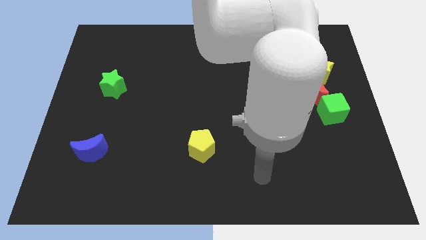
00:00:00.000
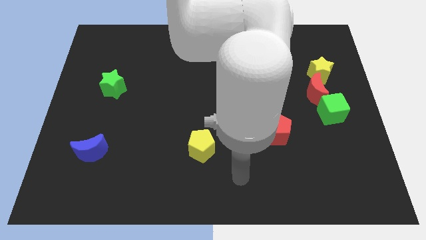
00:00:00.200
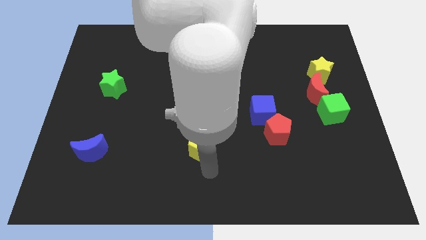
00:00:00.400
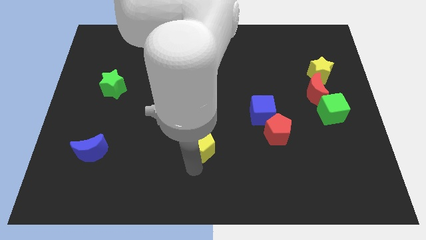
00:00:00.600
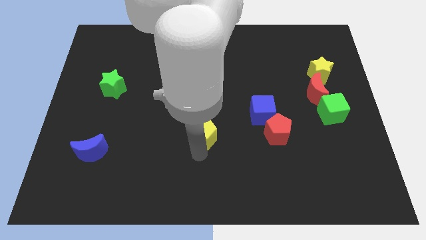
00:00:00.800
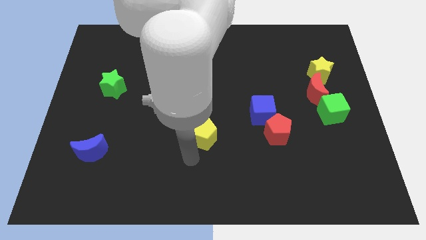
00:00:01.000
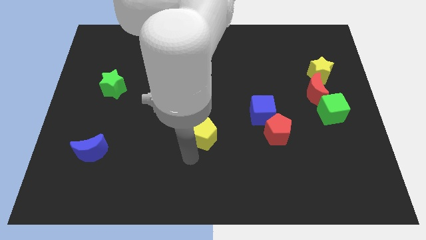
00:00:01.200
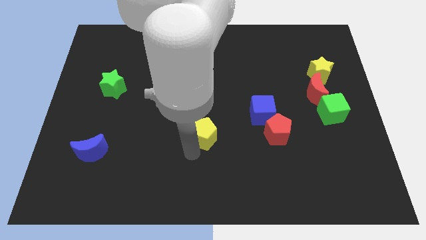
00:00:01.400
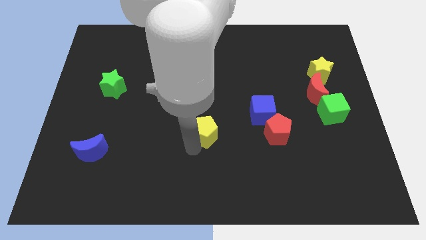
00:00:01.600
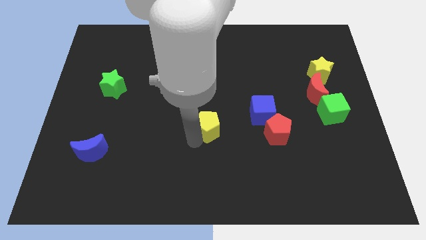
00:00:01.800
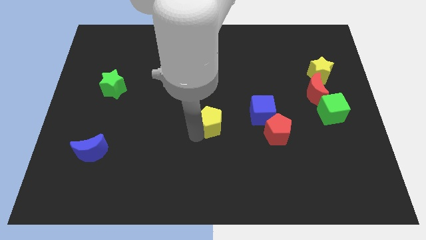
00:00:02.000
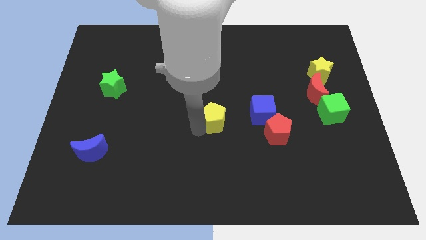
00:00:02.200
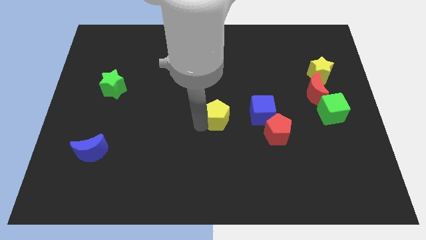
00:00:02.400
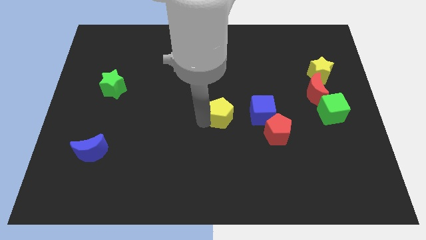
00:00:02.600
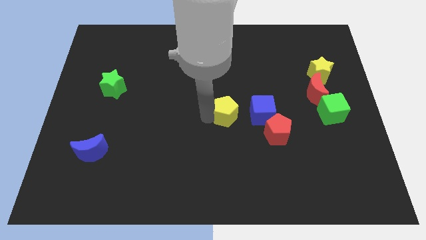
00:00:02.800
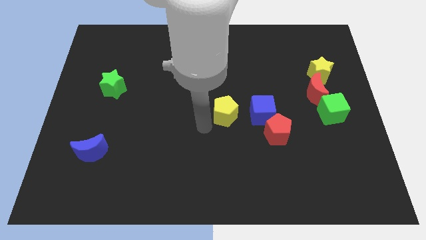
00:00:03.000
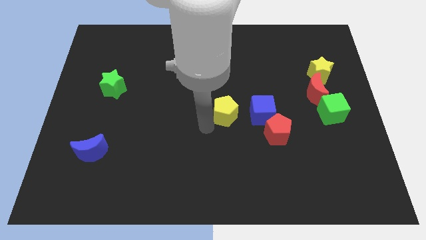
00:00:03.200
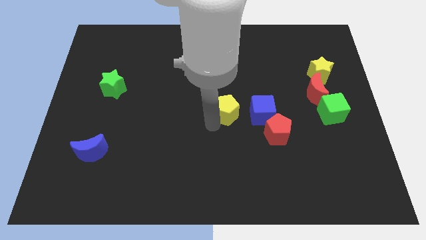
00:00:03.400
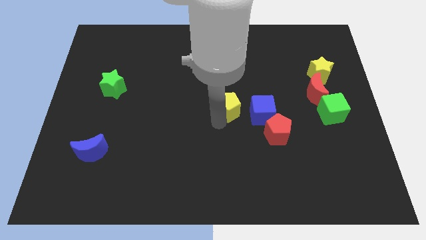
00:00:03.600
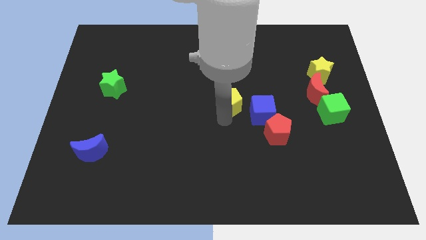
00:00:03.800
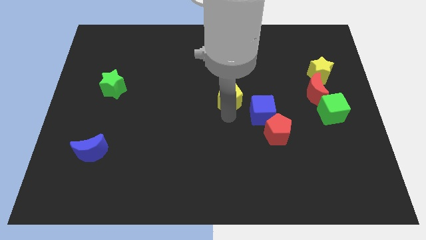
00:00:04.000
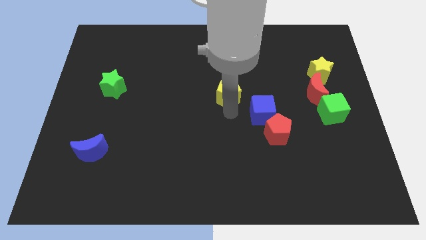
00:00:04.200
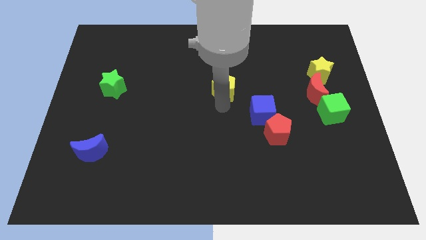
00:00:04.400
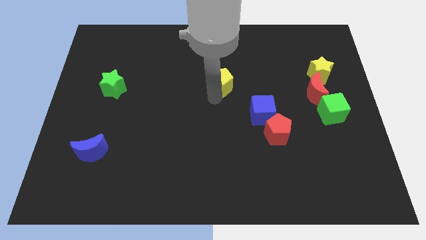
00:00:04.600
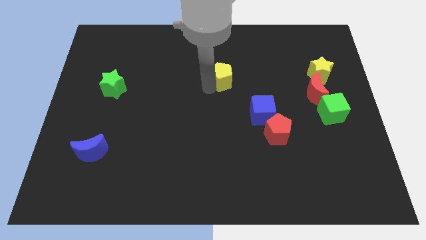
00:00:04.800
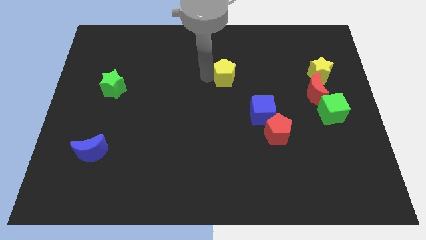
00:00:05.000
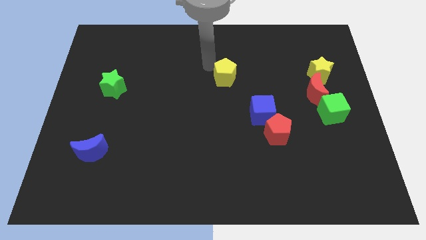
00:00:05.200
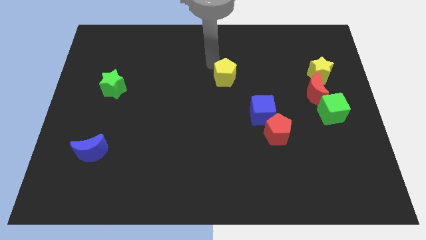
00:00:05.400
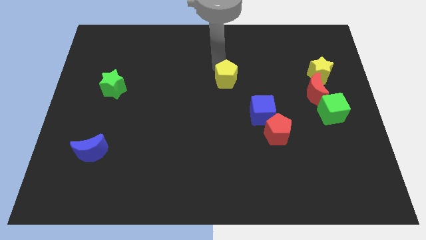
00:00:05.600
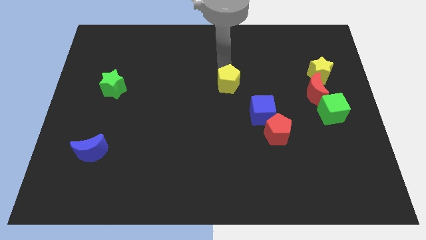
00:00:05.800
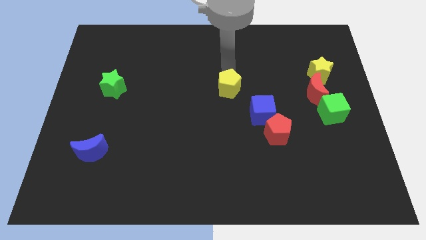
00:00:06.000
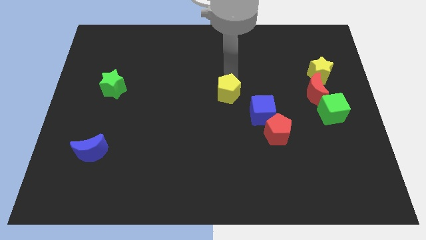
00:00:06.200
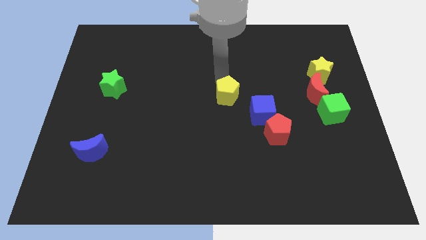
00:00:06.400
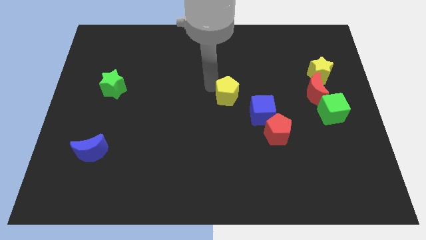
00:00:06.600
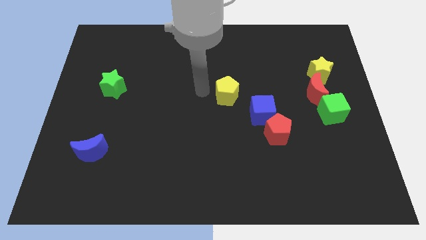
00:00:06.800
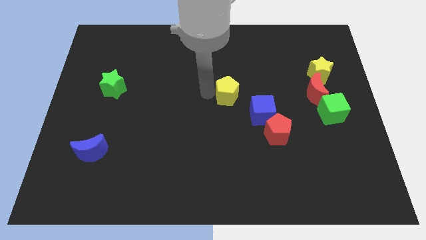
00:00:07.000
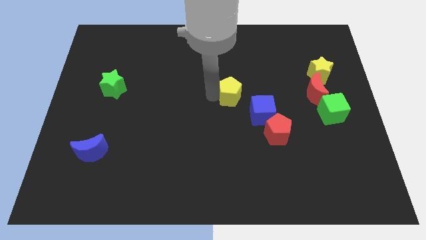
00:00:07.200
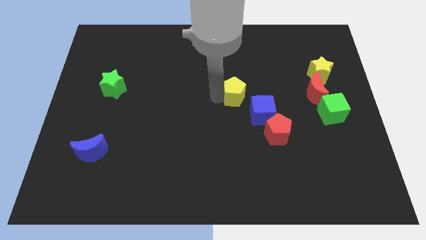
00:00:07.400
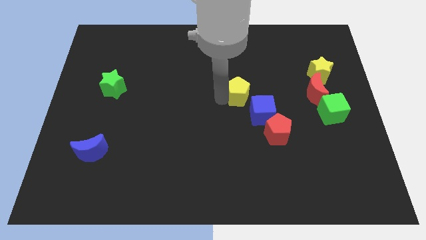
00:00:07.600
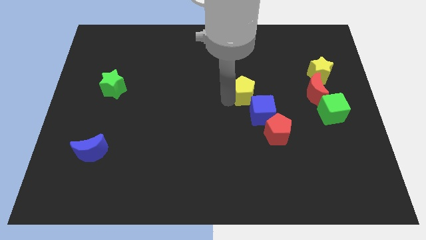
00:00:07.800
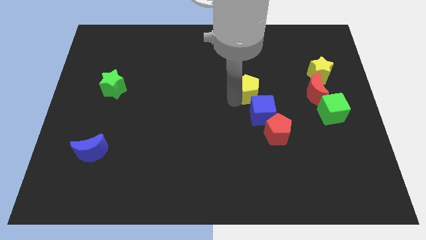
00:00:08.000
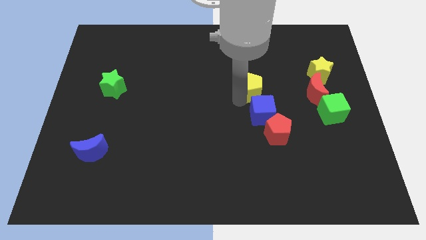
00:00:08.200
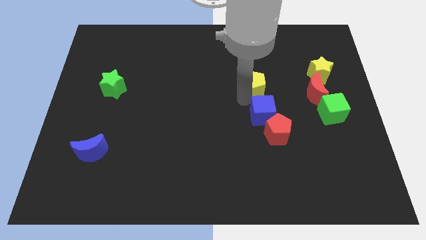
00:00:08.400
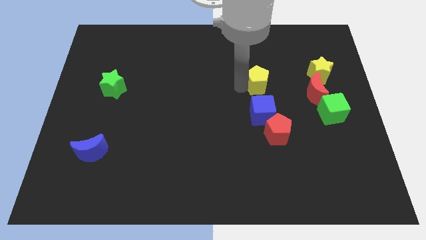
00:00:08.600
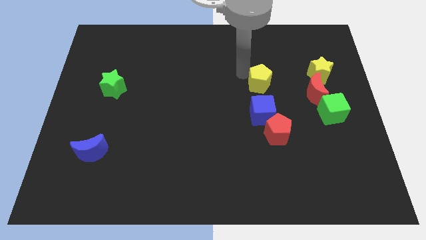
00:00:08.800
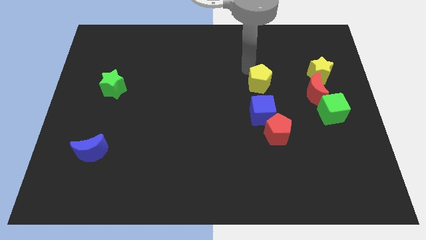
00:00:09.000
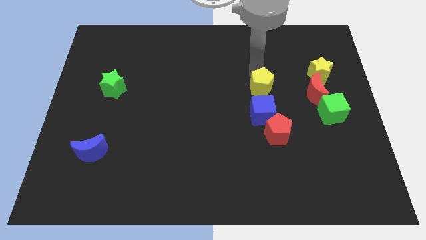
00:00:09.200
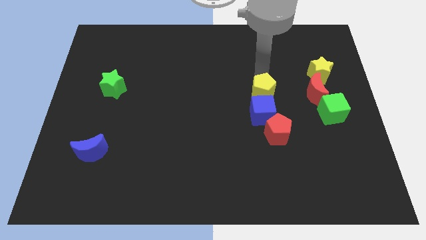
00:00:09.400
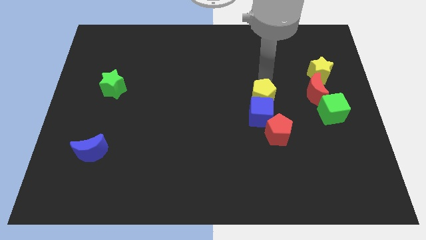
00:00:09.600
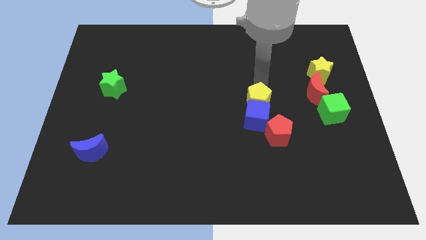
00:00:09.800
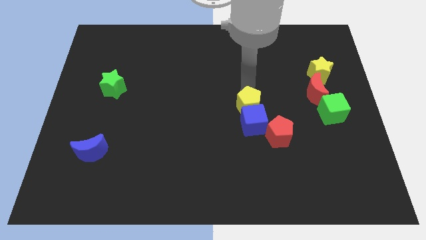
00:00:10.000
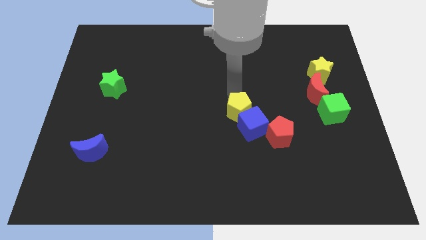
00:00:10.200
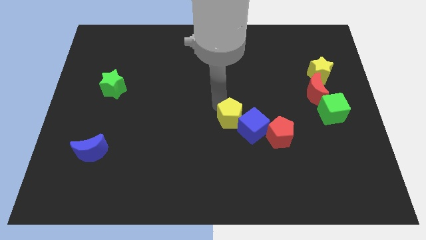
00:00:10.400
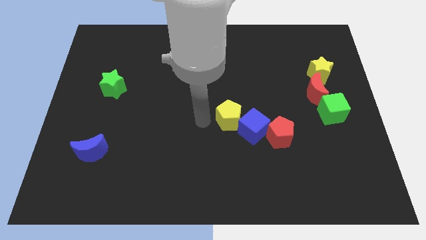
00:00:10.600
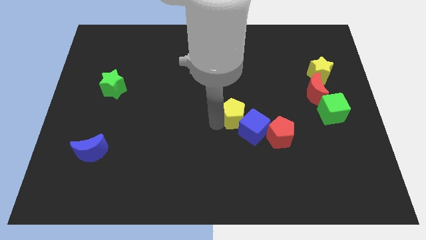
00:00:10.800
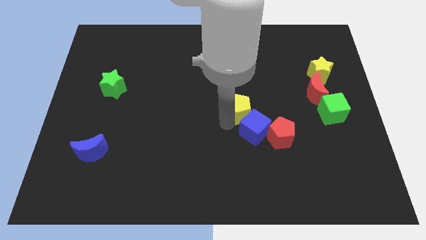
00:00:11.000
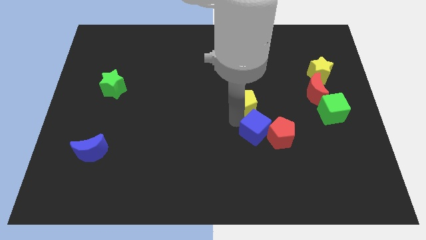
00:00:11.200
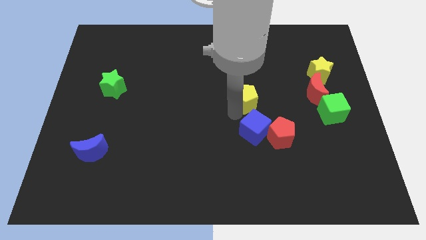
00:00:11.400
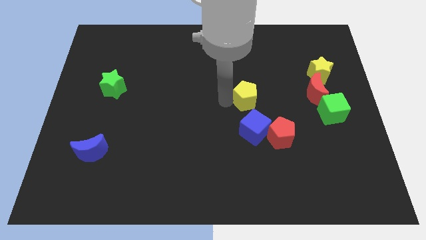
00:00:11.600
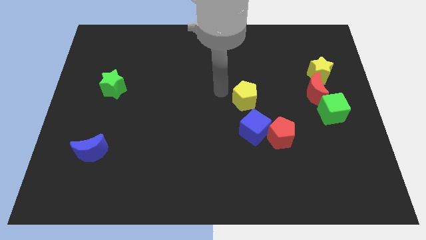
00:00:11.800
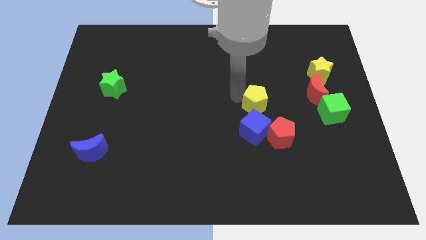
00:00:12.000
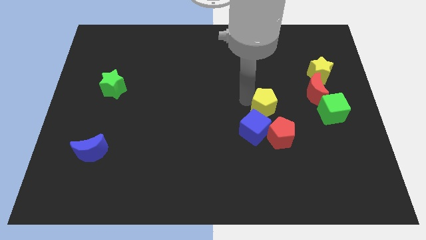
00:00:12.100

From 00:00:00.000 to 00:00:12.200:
put the yellow pentagon left of the green cube

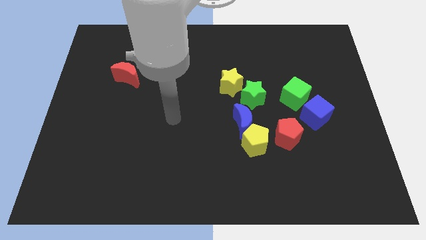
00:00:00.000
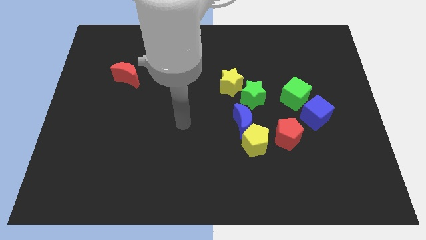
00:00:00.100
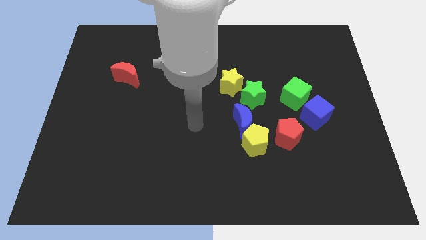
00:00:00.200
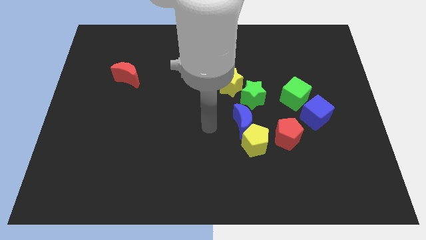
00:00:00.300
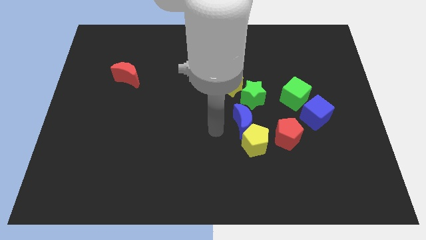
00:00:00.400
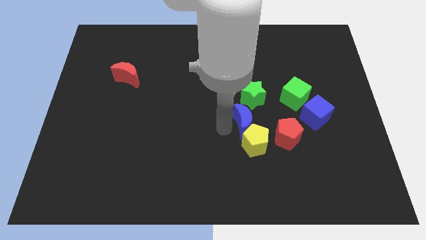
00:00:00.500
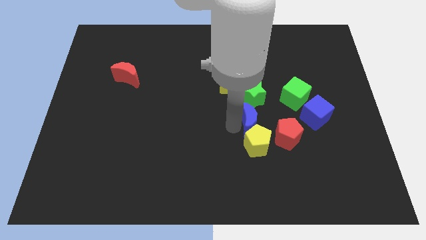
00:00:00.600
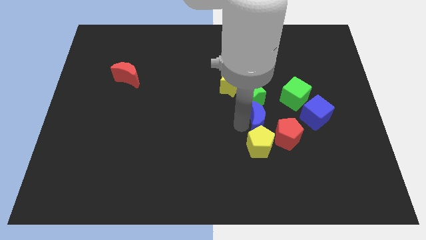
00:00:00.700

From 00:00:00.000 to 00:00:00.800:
move the blue moon to the bottom right side of the green star
